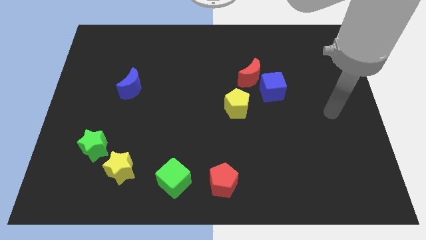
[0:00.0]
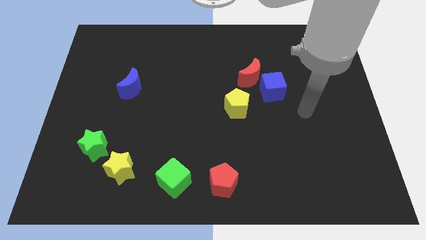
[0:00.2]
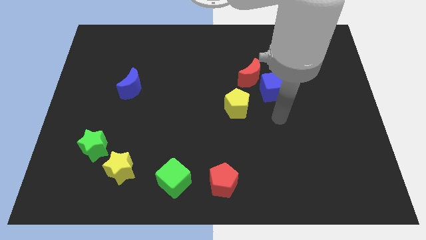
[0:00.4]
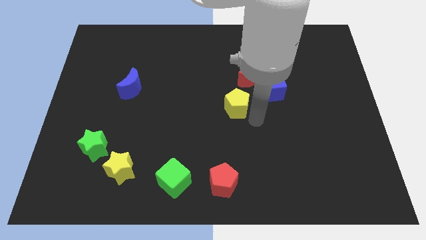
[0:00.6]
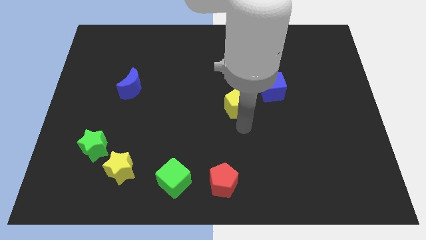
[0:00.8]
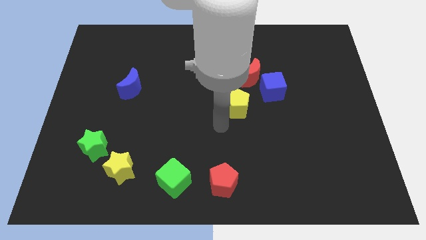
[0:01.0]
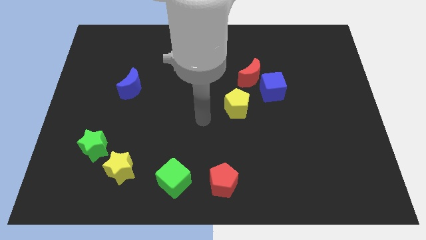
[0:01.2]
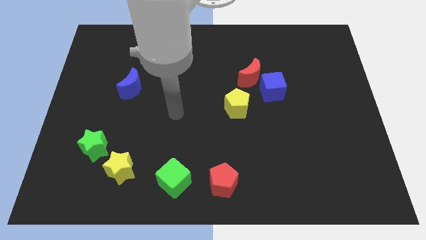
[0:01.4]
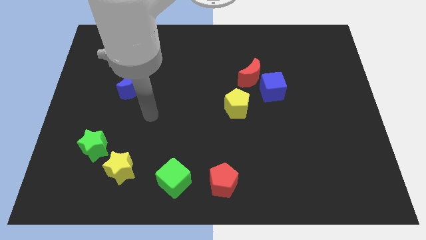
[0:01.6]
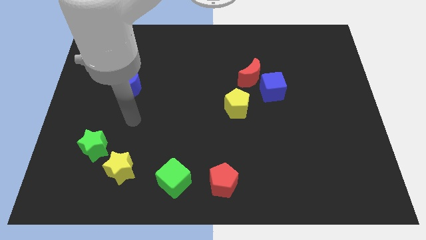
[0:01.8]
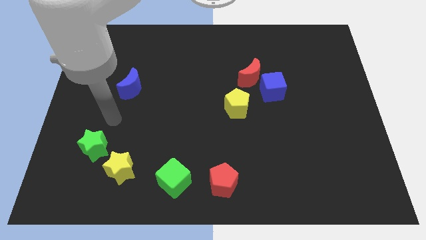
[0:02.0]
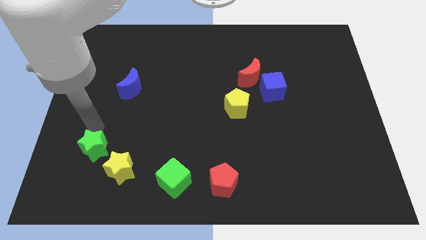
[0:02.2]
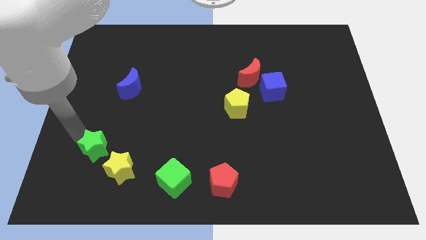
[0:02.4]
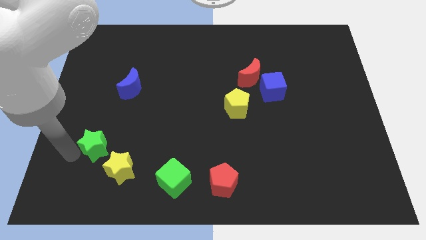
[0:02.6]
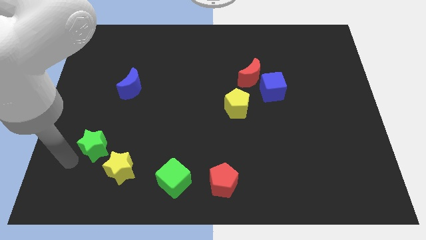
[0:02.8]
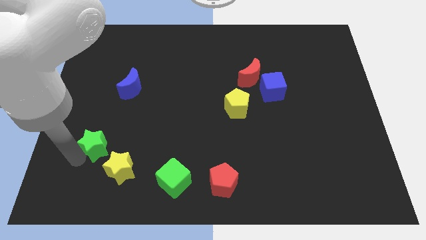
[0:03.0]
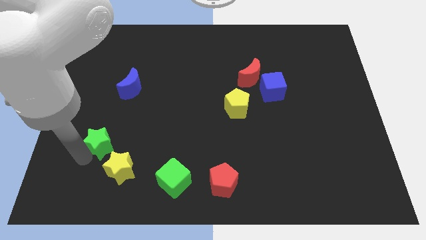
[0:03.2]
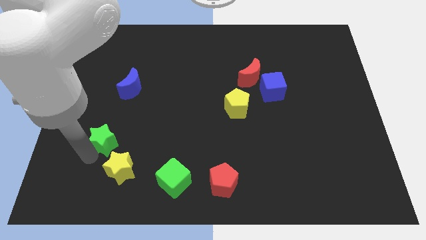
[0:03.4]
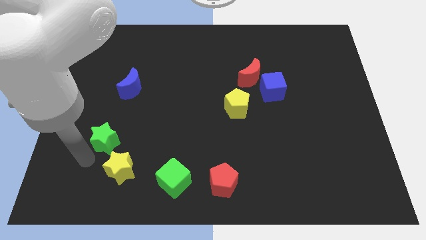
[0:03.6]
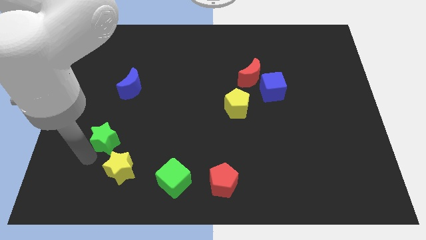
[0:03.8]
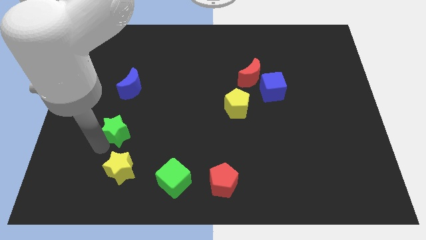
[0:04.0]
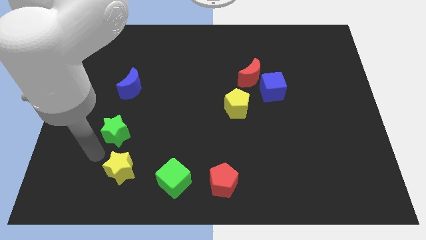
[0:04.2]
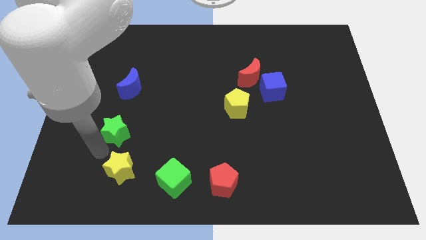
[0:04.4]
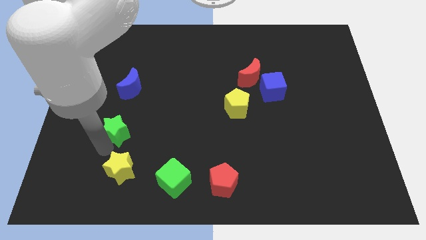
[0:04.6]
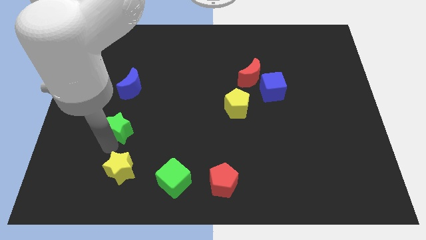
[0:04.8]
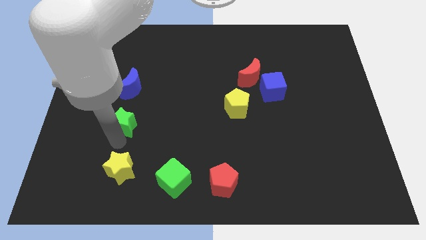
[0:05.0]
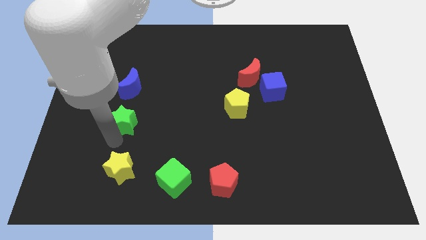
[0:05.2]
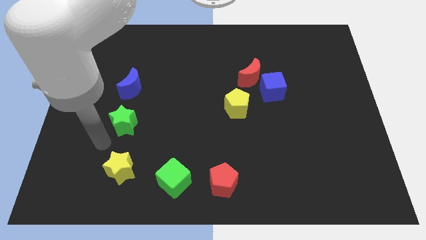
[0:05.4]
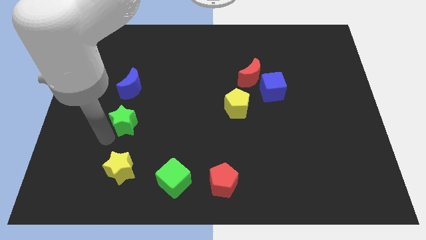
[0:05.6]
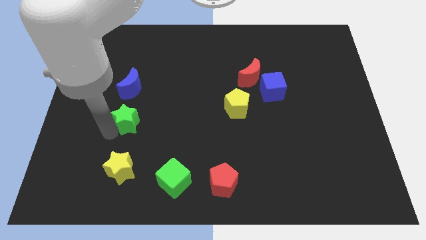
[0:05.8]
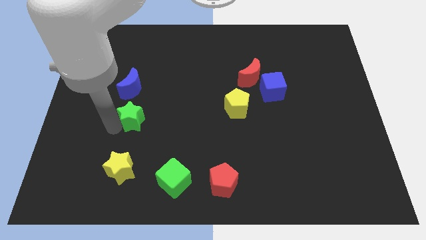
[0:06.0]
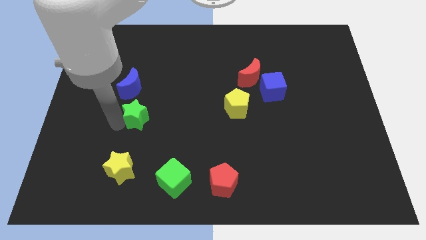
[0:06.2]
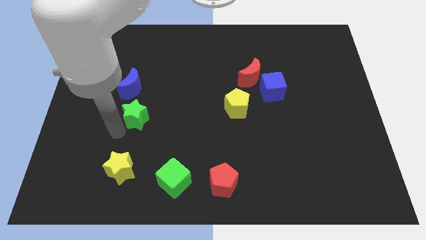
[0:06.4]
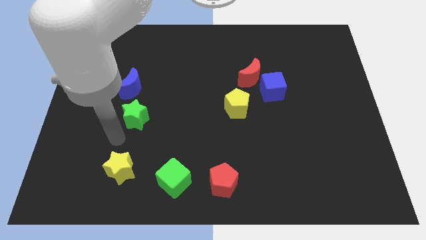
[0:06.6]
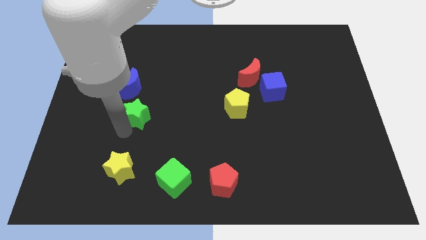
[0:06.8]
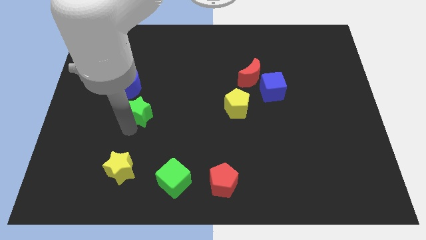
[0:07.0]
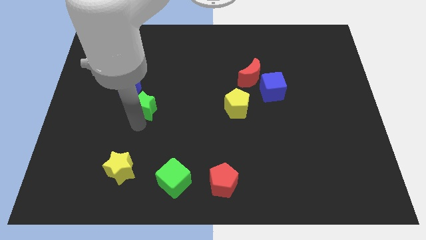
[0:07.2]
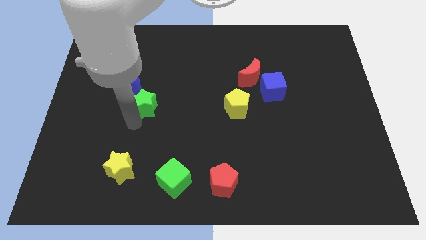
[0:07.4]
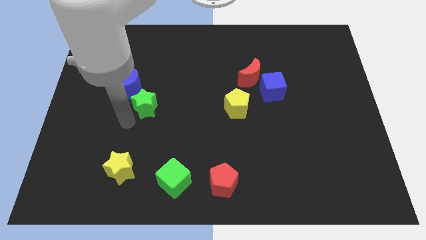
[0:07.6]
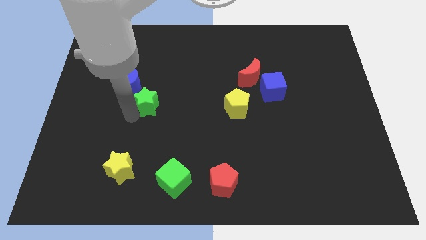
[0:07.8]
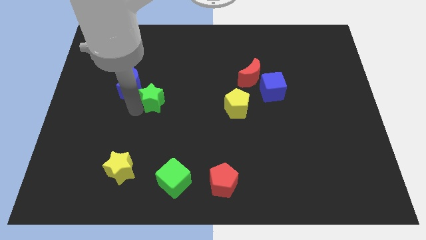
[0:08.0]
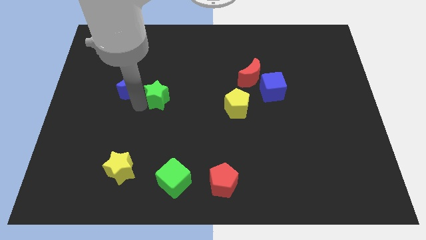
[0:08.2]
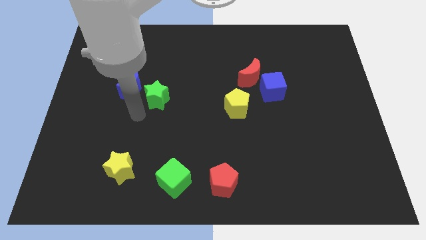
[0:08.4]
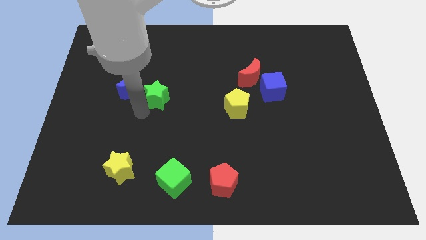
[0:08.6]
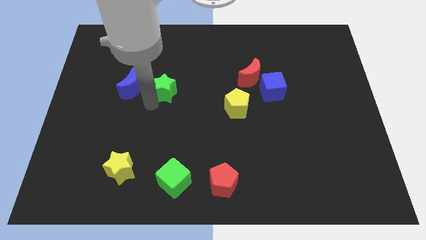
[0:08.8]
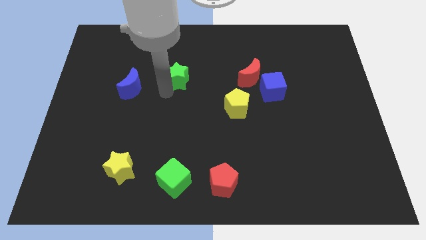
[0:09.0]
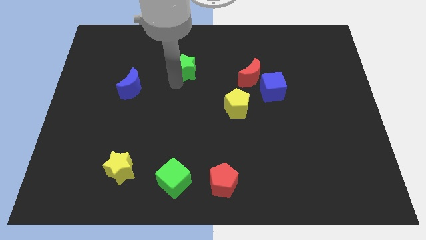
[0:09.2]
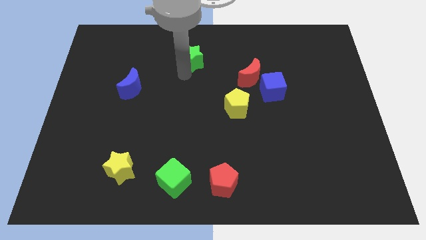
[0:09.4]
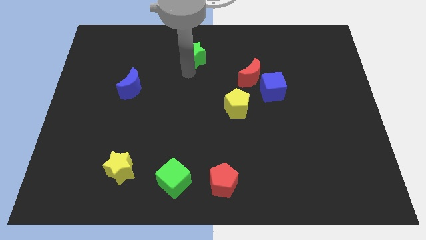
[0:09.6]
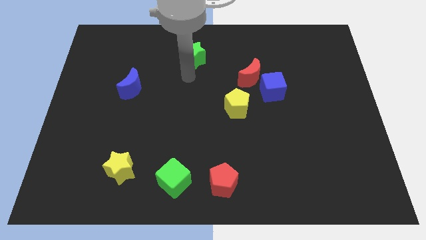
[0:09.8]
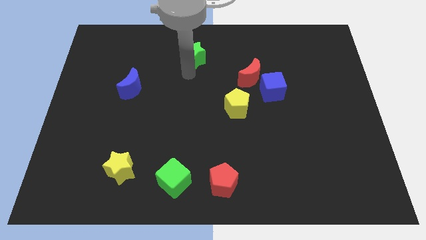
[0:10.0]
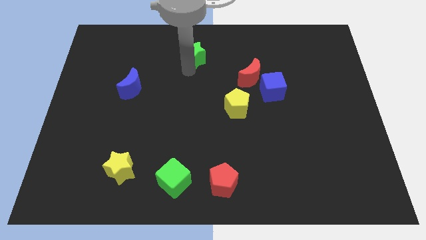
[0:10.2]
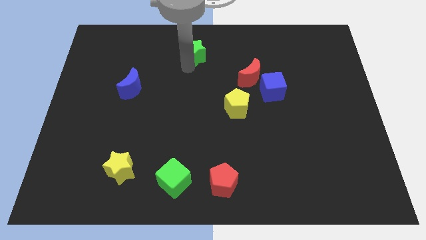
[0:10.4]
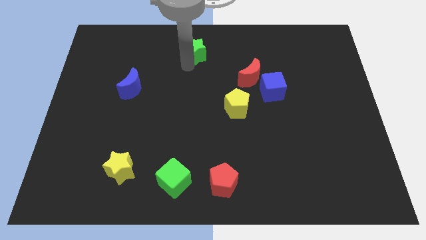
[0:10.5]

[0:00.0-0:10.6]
slide the green star to the top side
